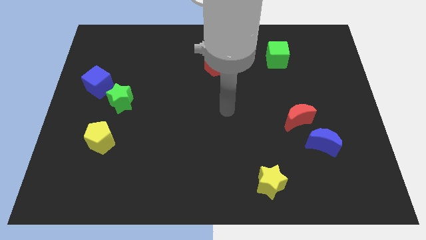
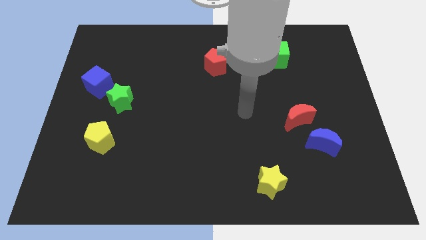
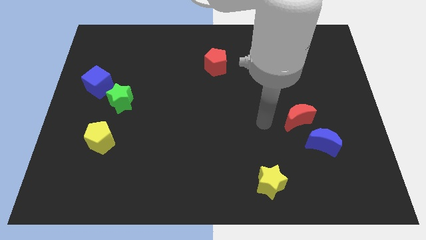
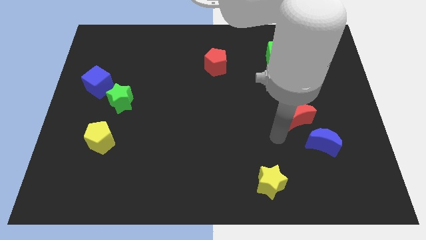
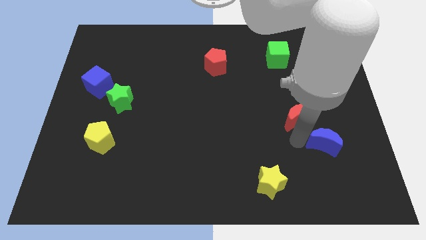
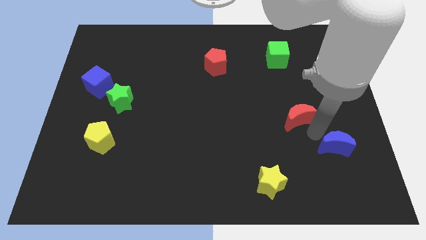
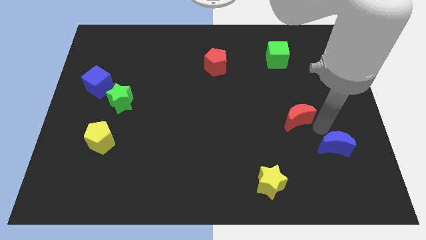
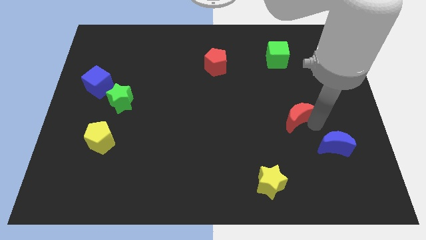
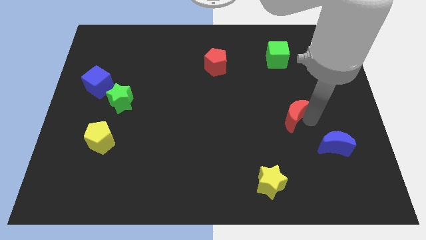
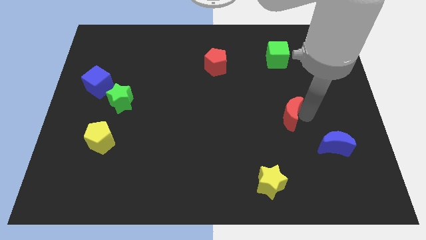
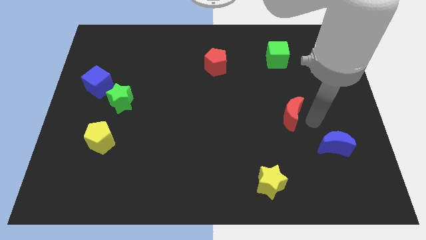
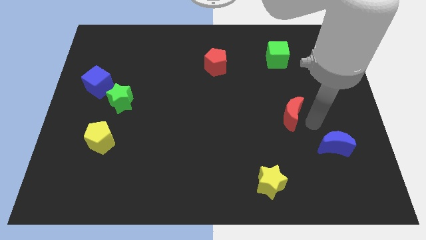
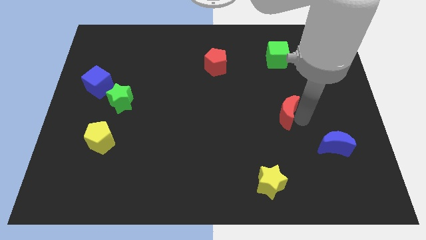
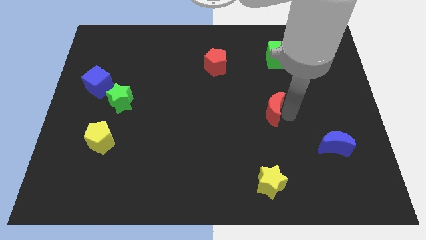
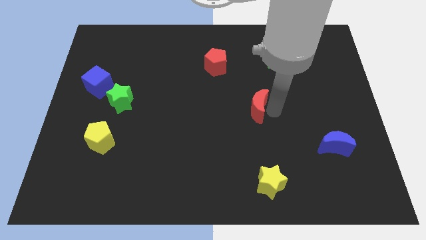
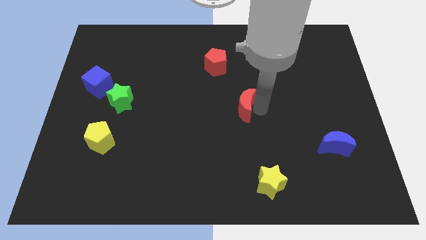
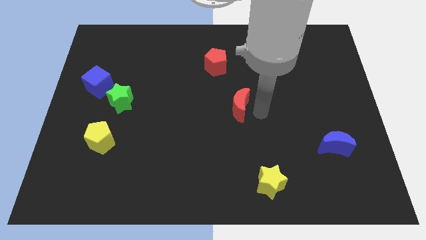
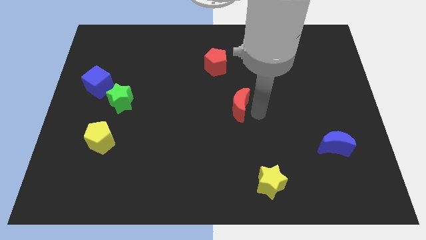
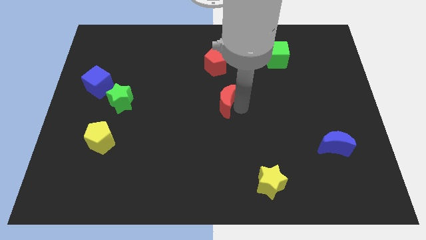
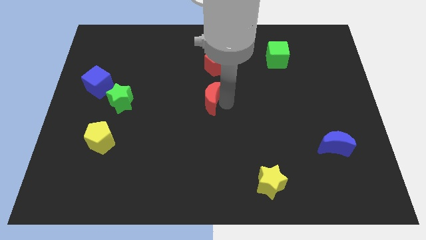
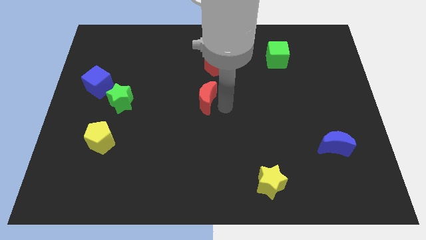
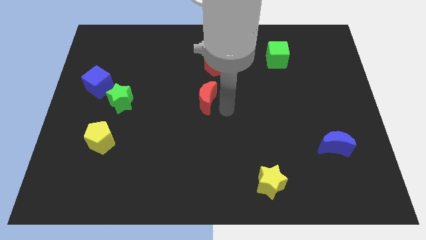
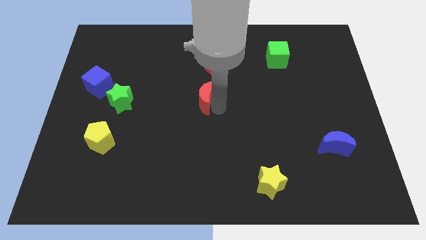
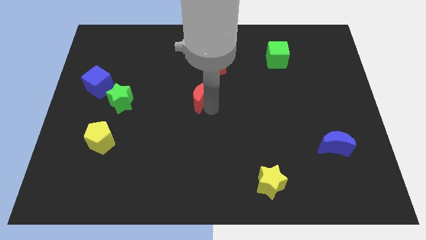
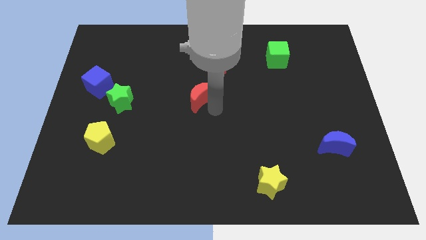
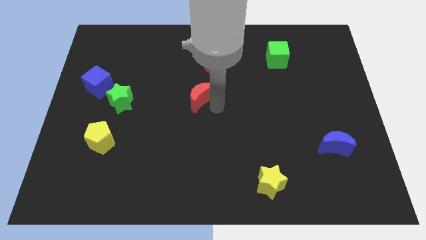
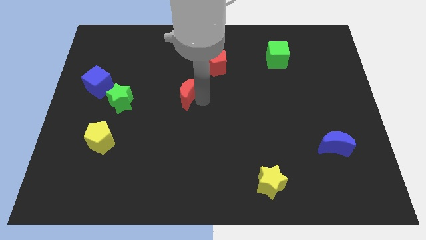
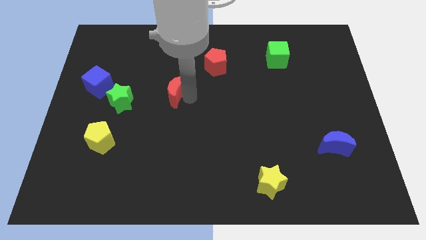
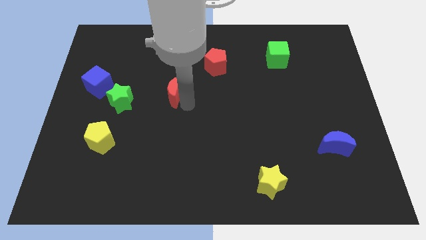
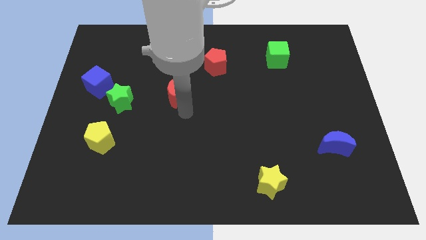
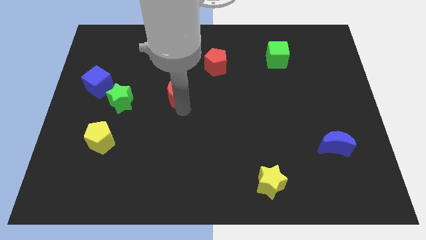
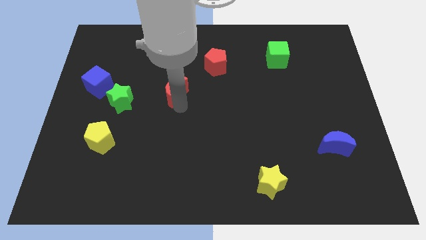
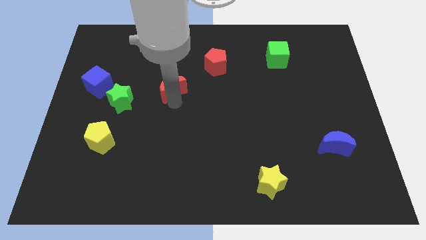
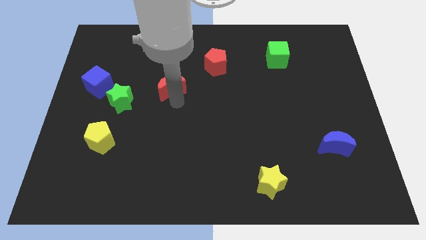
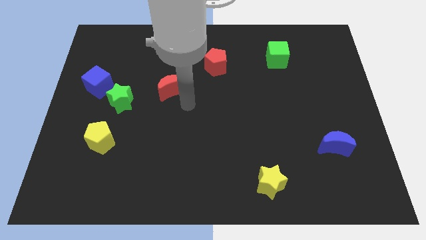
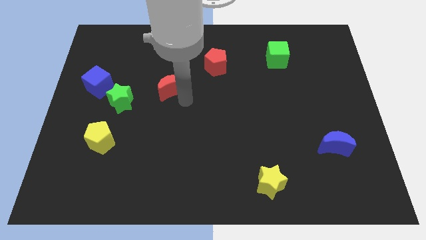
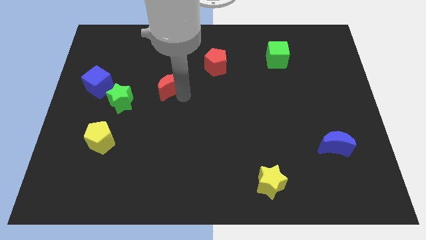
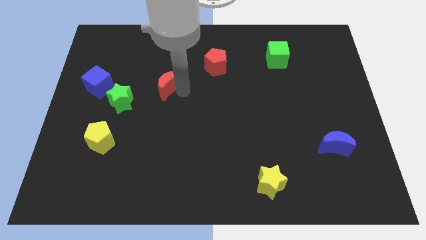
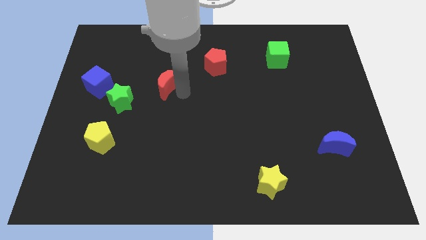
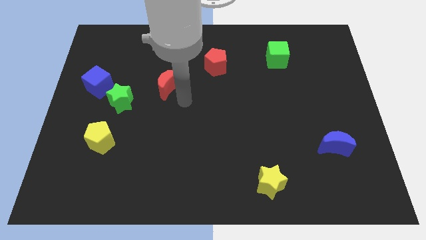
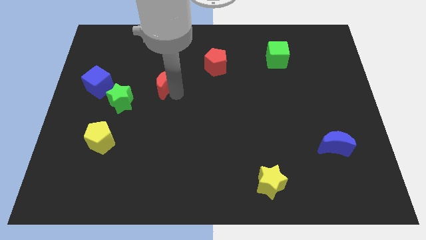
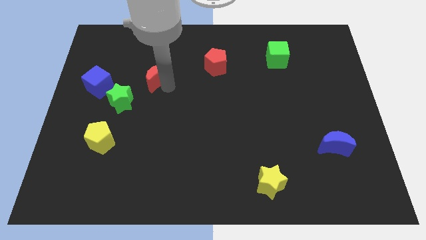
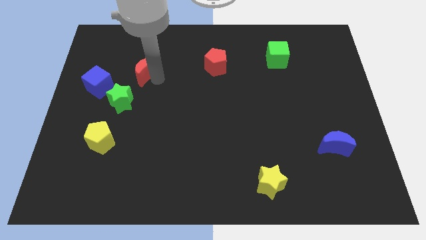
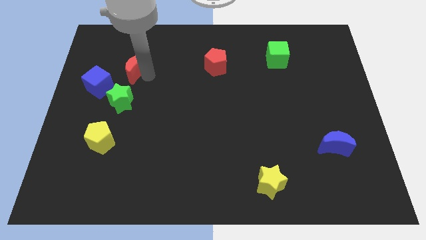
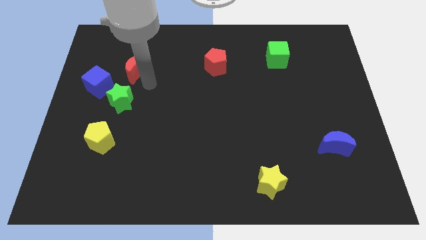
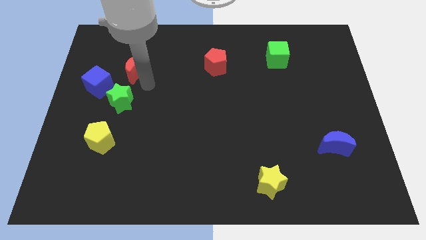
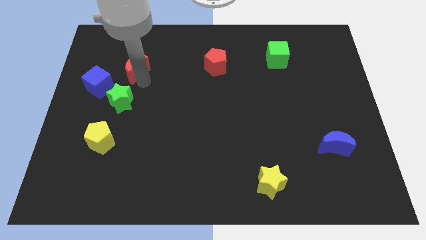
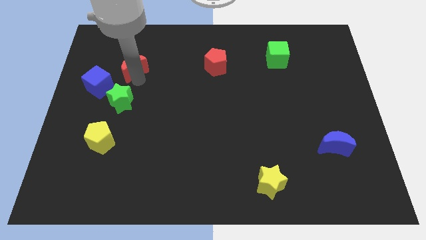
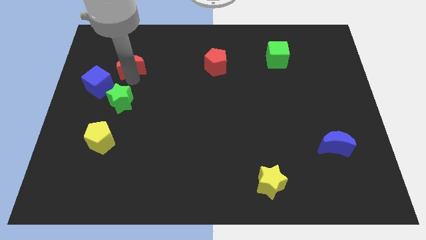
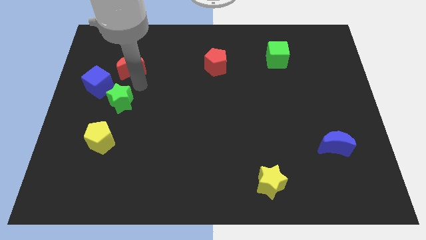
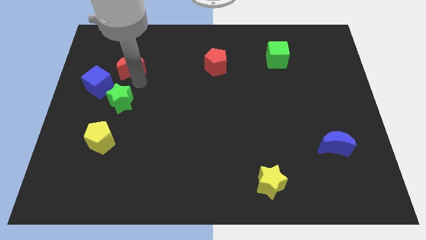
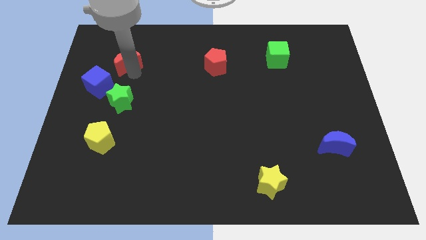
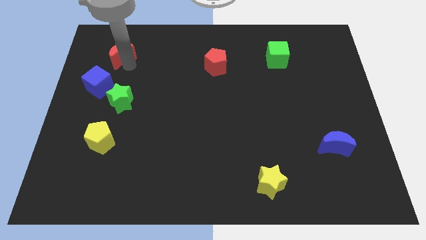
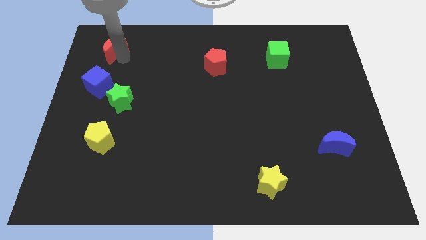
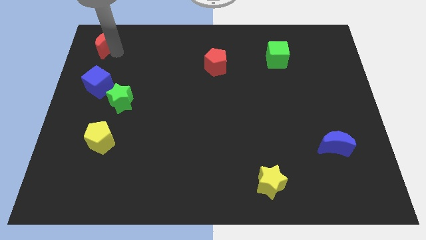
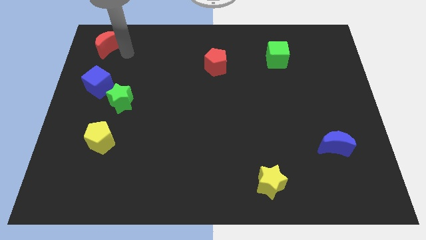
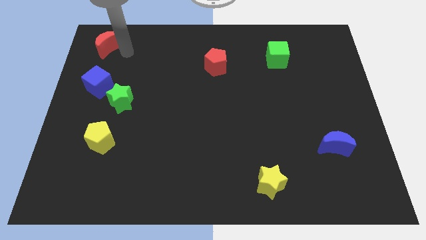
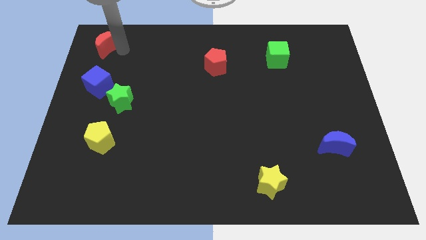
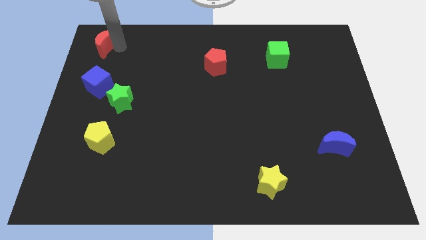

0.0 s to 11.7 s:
slide the red moon to the top left corner

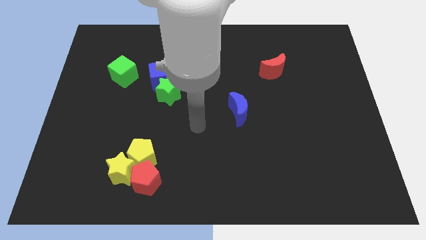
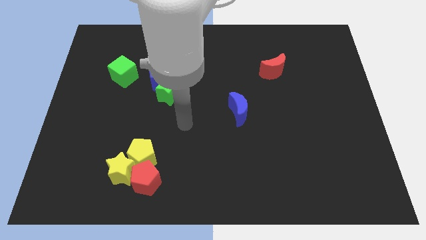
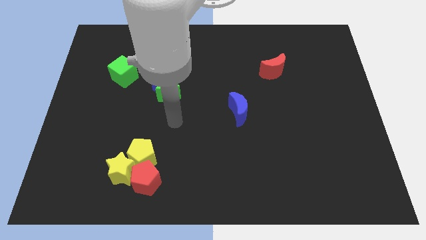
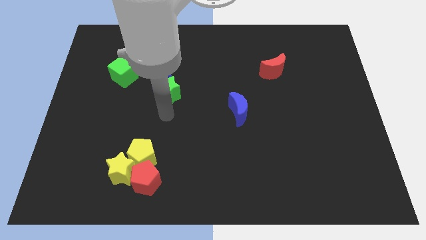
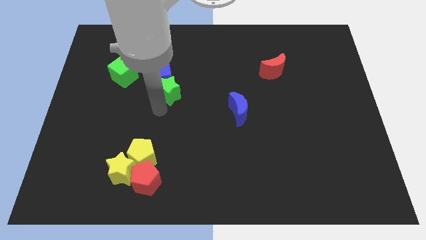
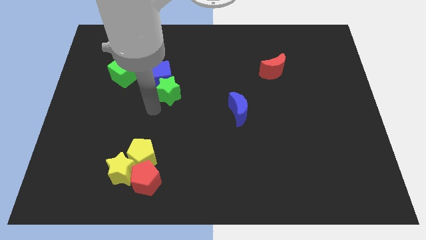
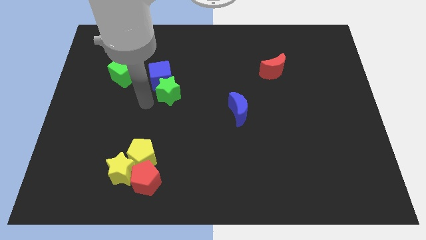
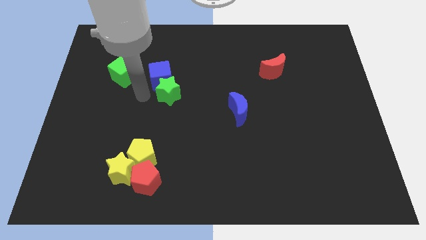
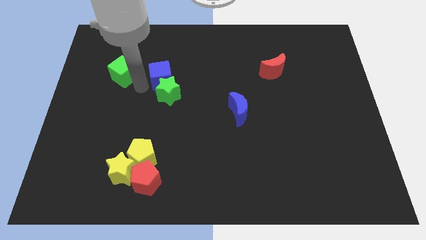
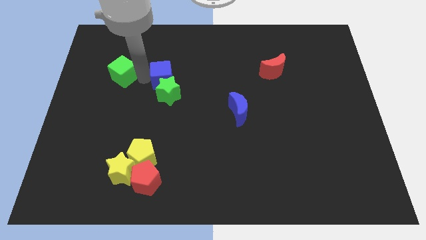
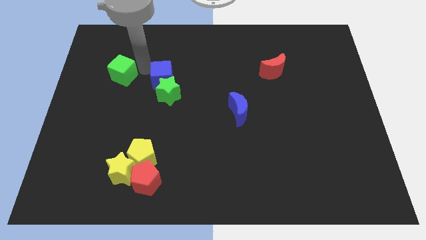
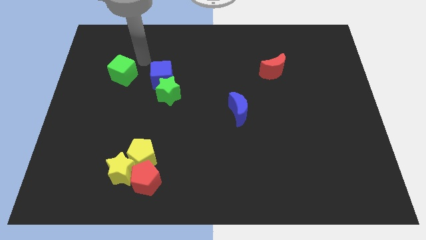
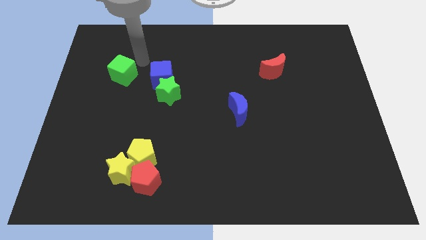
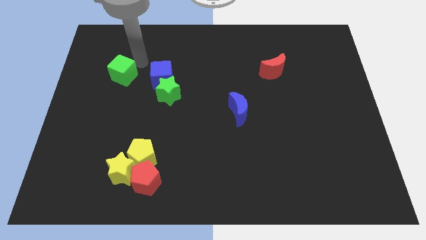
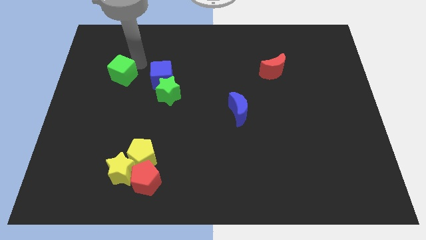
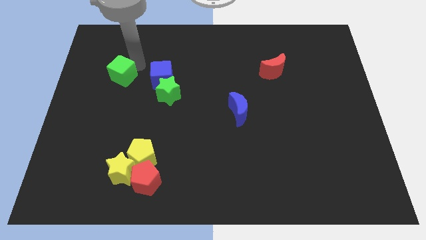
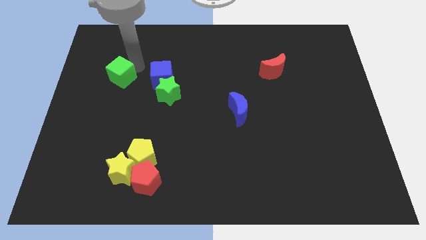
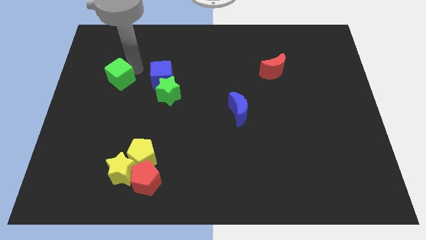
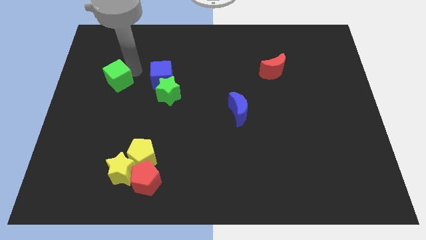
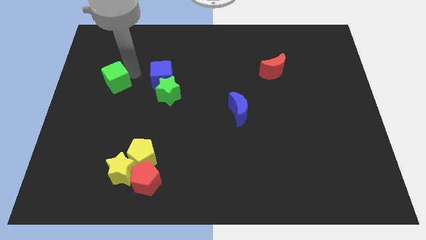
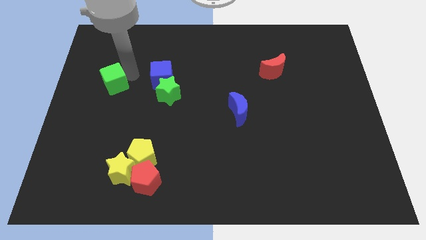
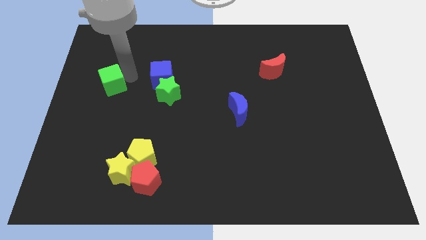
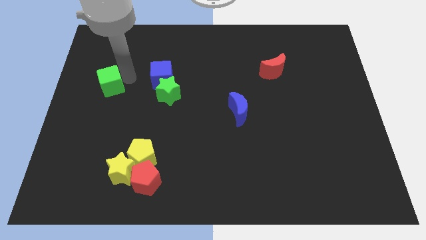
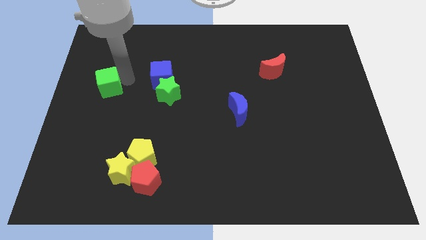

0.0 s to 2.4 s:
move the green cube to the center left
